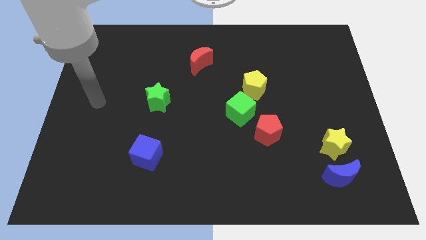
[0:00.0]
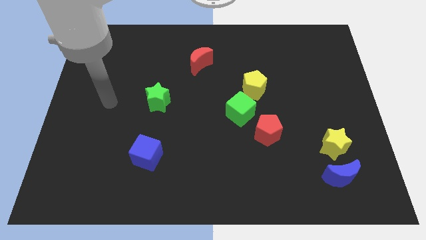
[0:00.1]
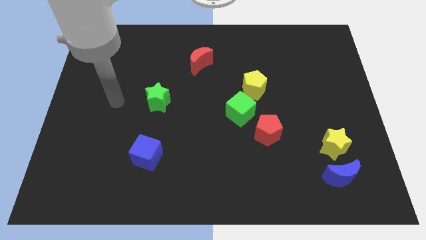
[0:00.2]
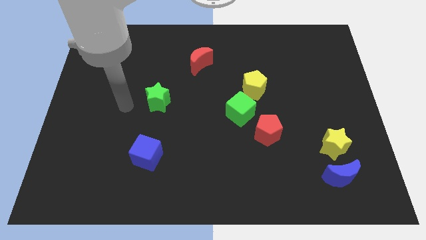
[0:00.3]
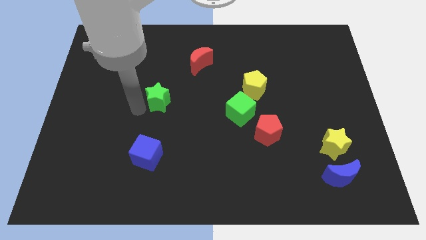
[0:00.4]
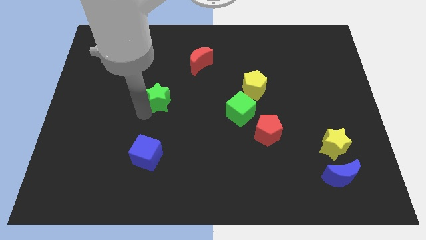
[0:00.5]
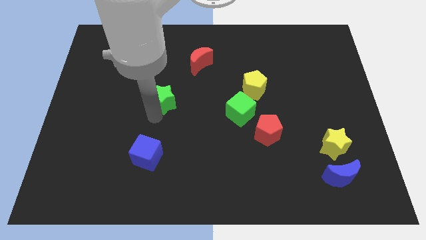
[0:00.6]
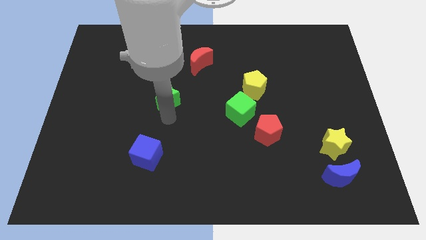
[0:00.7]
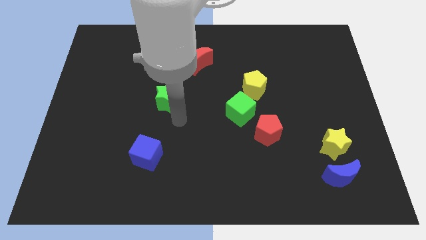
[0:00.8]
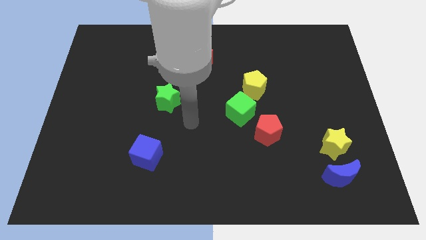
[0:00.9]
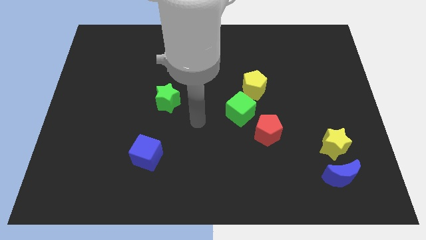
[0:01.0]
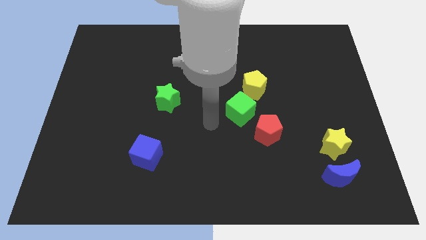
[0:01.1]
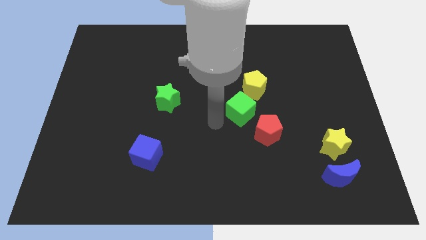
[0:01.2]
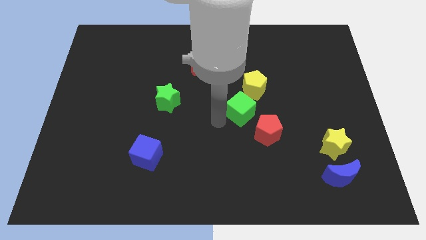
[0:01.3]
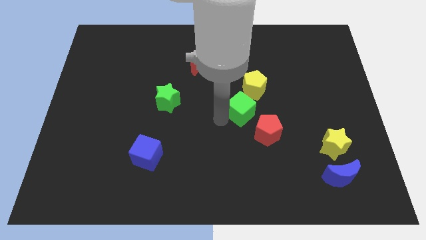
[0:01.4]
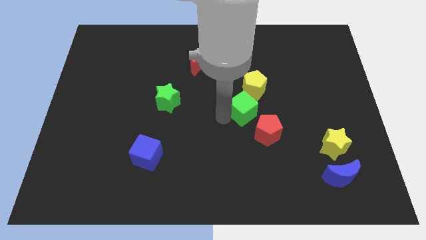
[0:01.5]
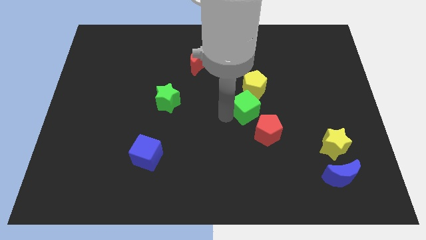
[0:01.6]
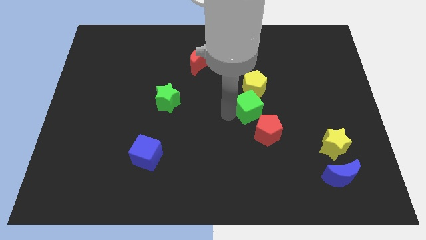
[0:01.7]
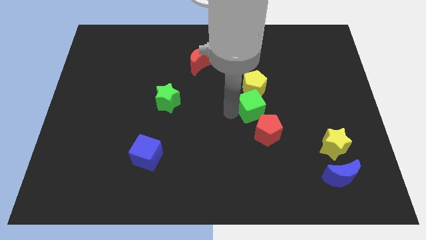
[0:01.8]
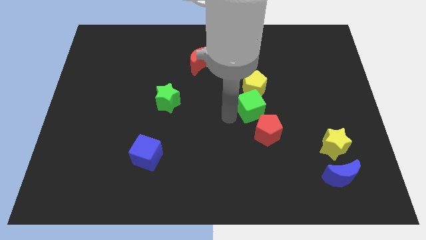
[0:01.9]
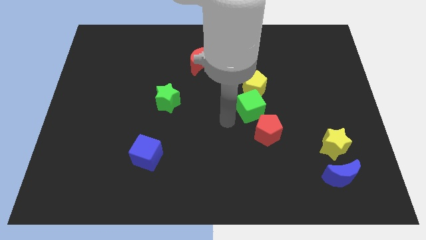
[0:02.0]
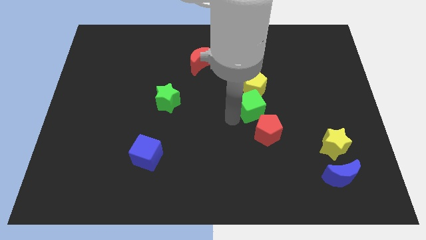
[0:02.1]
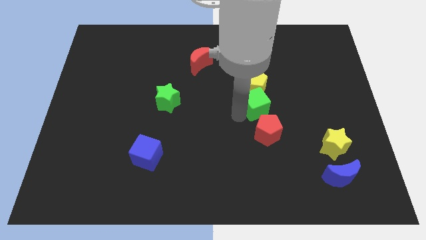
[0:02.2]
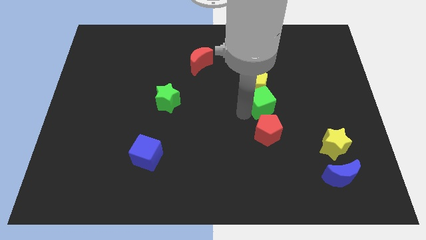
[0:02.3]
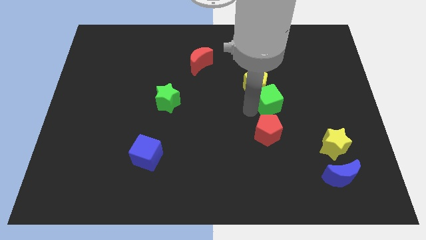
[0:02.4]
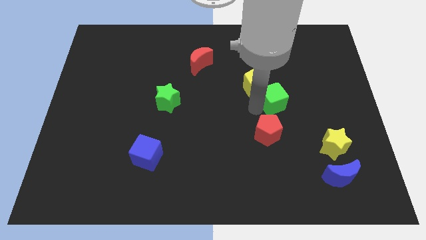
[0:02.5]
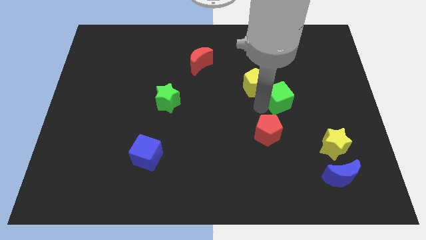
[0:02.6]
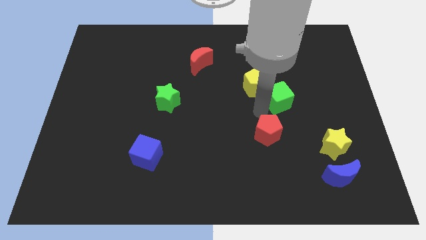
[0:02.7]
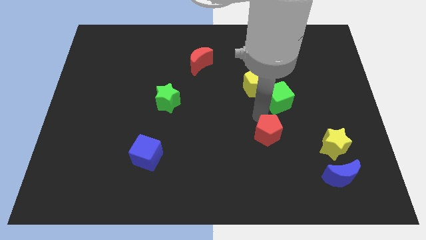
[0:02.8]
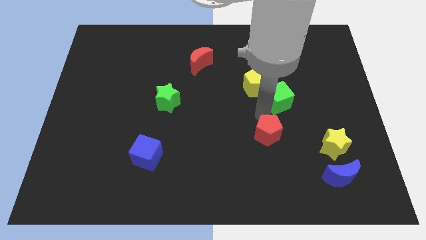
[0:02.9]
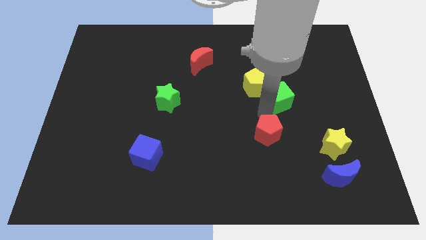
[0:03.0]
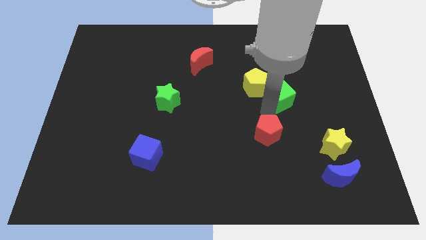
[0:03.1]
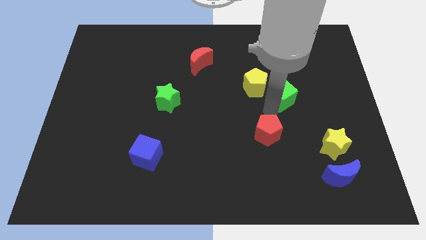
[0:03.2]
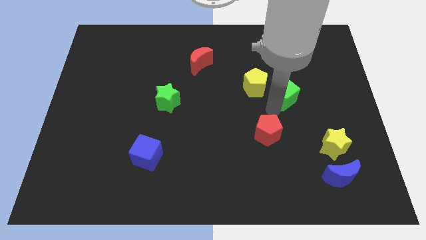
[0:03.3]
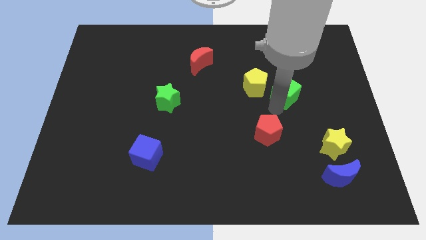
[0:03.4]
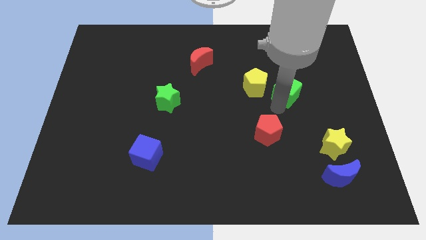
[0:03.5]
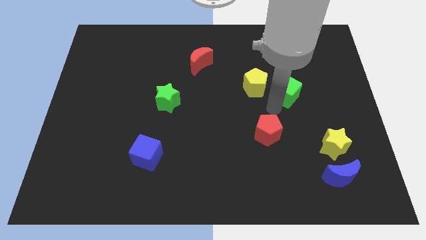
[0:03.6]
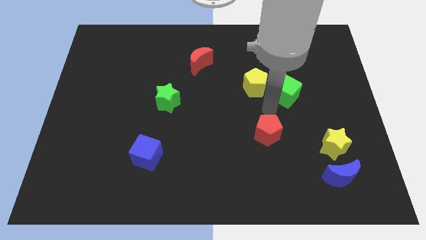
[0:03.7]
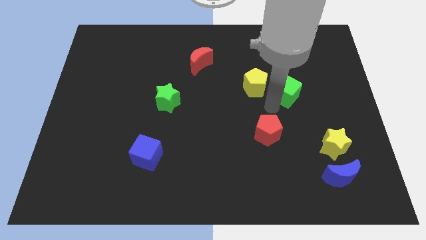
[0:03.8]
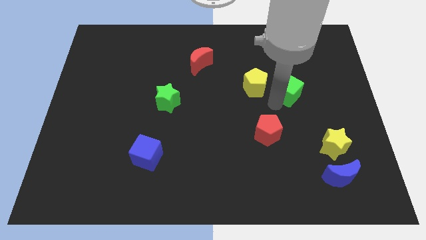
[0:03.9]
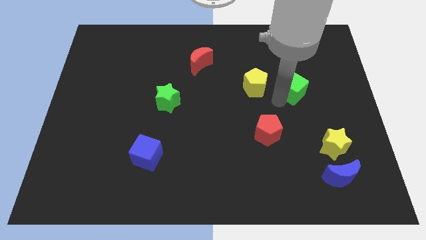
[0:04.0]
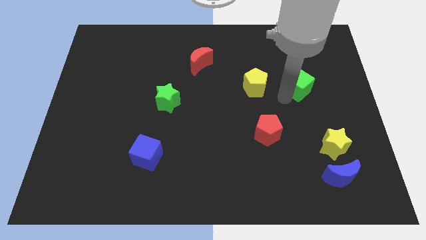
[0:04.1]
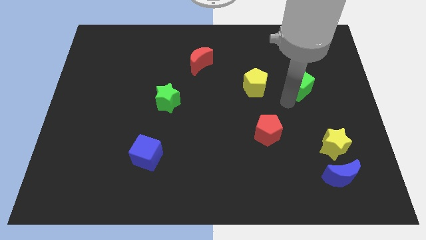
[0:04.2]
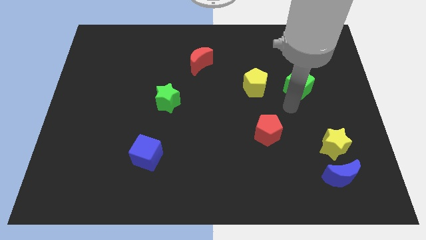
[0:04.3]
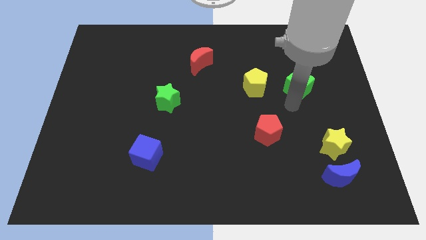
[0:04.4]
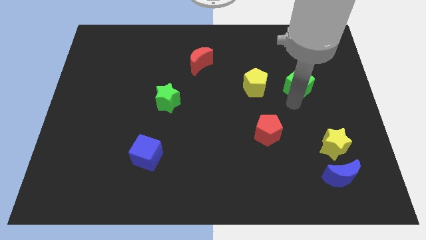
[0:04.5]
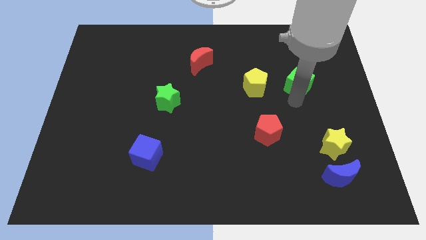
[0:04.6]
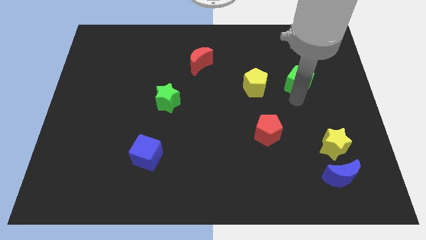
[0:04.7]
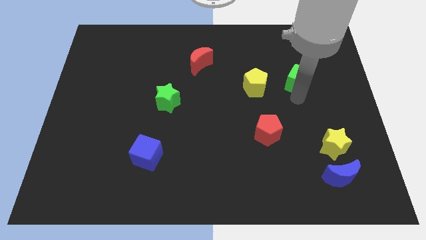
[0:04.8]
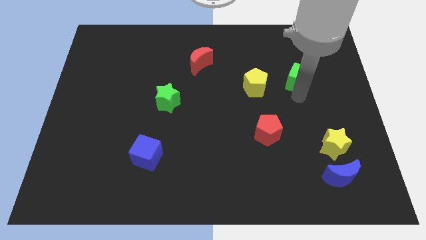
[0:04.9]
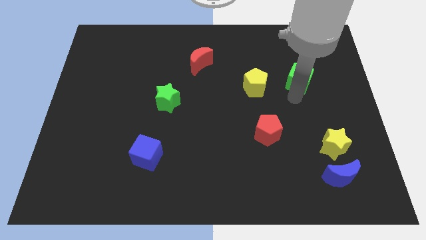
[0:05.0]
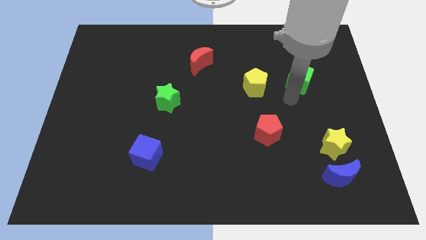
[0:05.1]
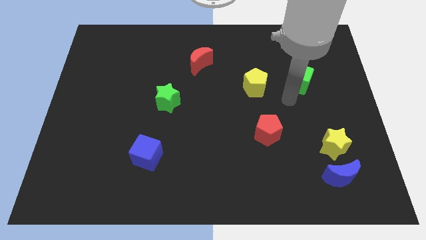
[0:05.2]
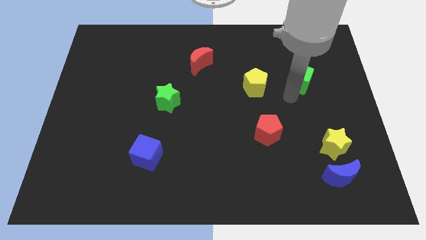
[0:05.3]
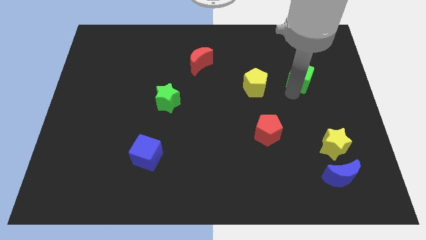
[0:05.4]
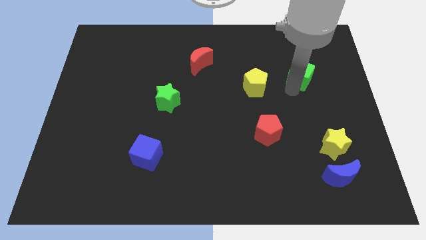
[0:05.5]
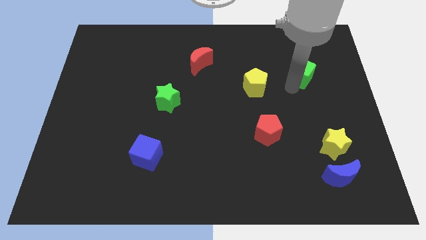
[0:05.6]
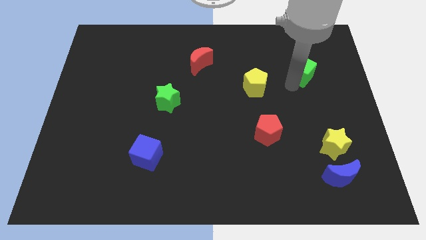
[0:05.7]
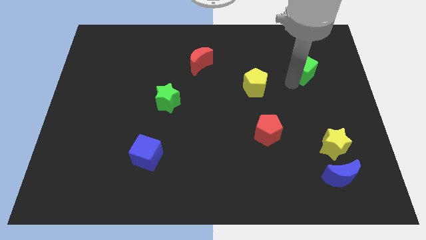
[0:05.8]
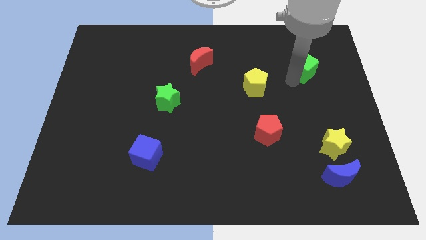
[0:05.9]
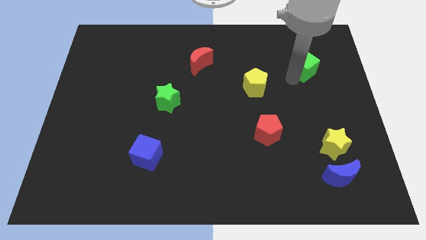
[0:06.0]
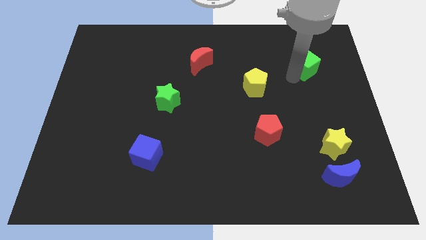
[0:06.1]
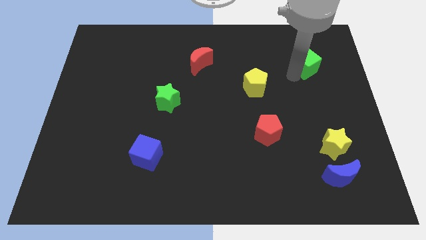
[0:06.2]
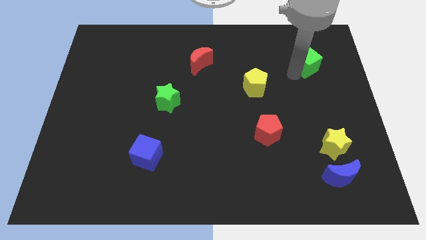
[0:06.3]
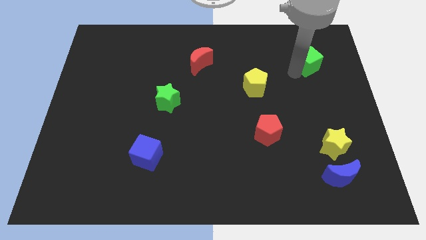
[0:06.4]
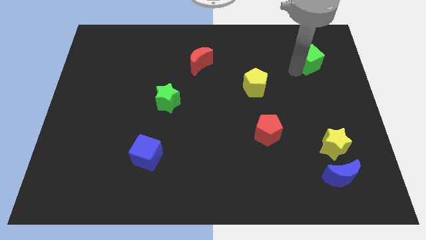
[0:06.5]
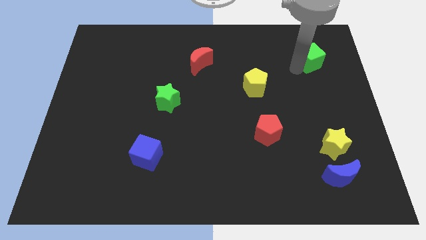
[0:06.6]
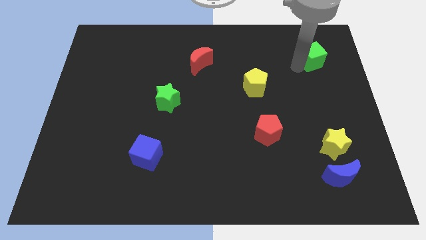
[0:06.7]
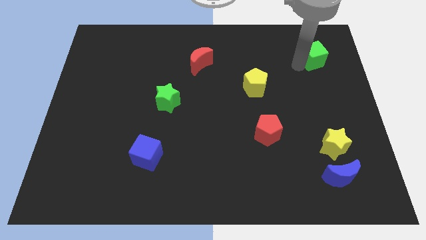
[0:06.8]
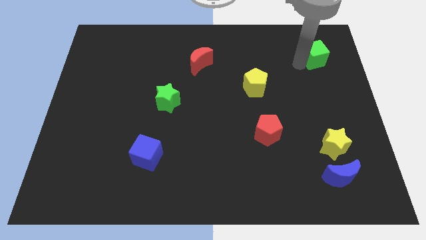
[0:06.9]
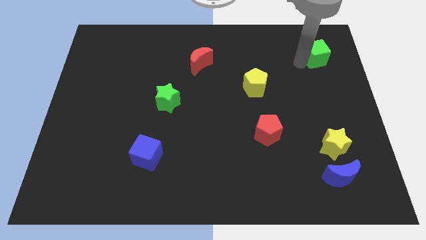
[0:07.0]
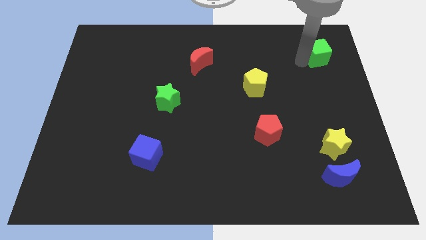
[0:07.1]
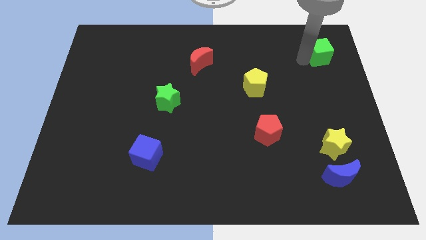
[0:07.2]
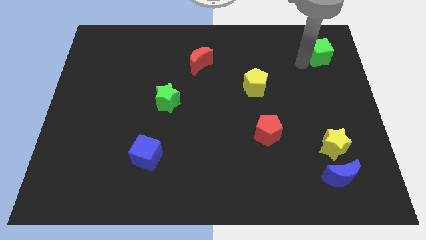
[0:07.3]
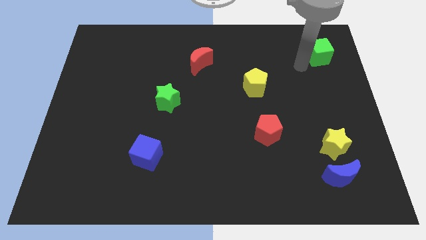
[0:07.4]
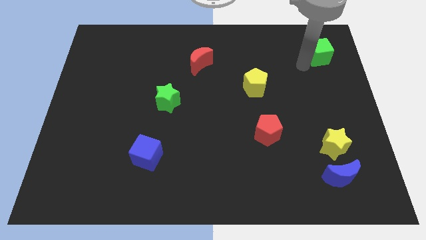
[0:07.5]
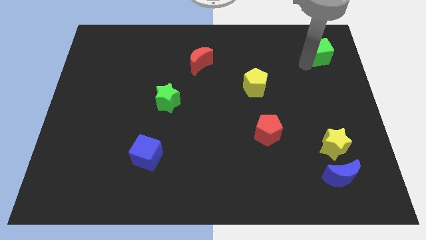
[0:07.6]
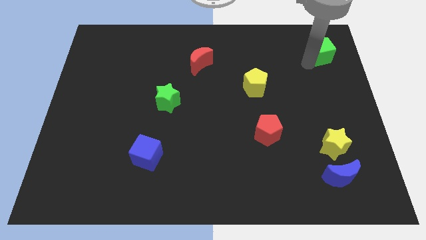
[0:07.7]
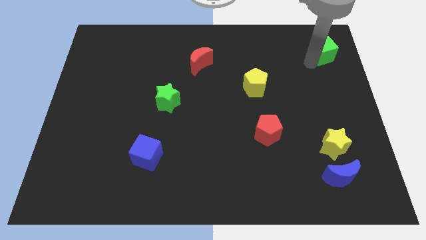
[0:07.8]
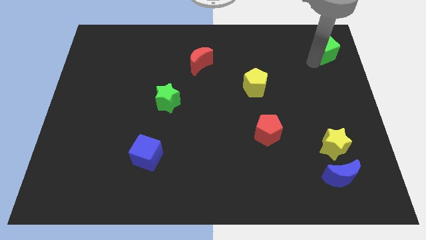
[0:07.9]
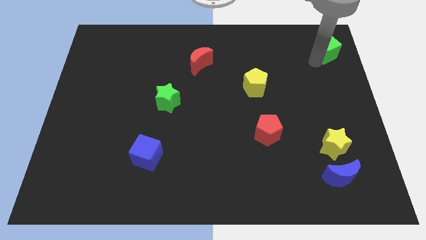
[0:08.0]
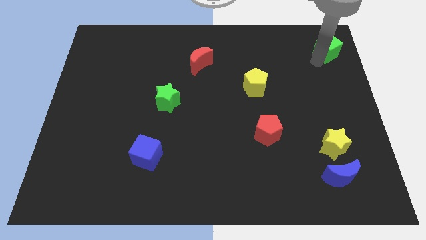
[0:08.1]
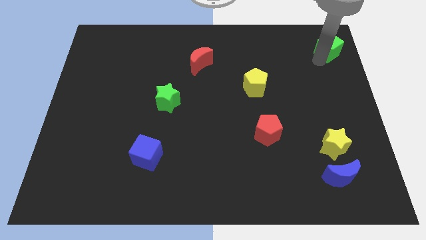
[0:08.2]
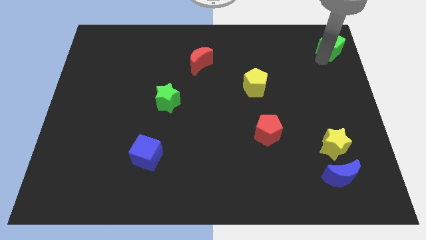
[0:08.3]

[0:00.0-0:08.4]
put the green cube to the top right corner
